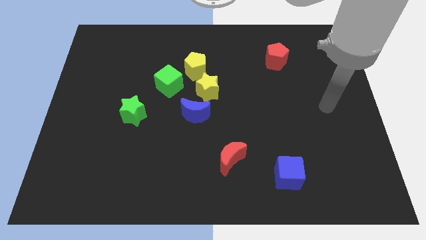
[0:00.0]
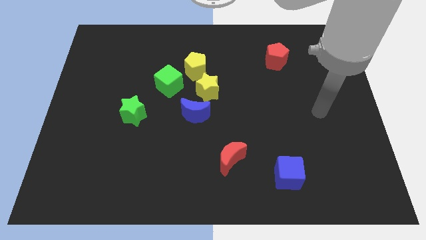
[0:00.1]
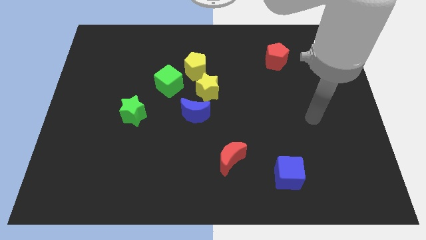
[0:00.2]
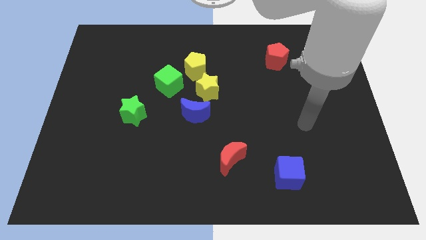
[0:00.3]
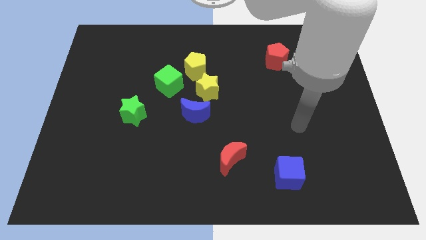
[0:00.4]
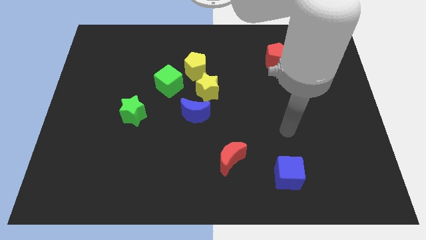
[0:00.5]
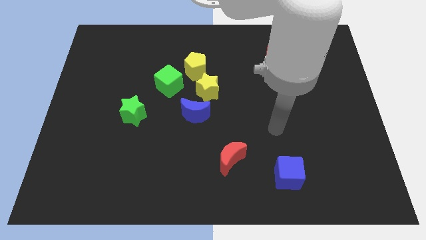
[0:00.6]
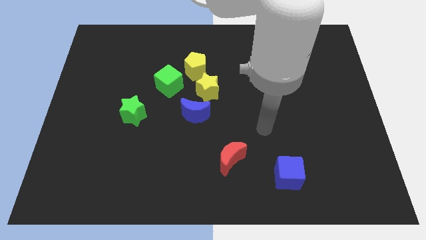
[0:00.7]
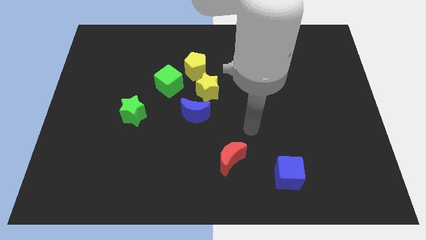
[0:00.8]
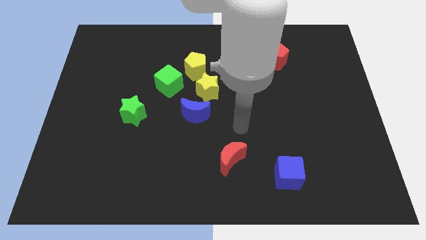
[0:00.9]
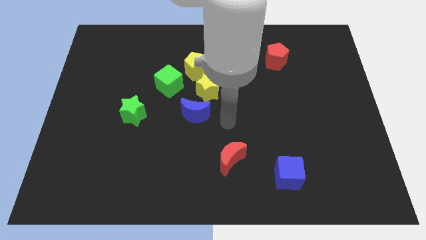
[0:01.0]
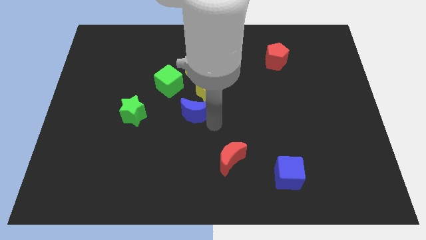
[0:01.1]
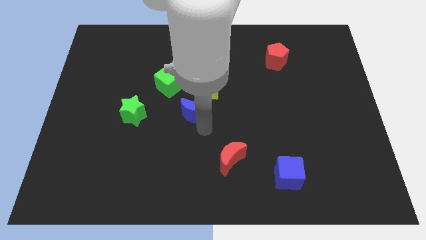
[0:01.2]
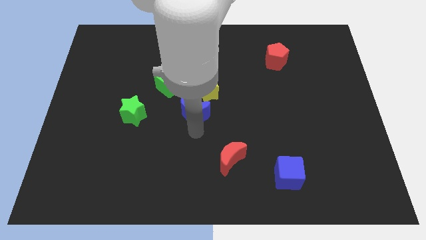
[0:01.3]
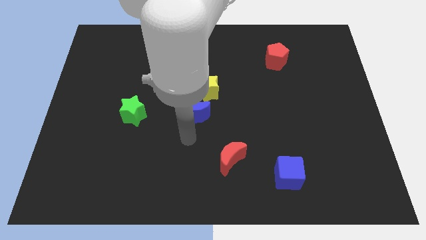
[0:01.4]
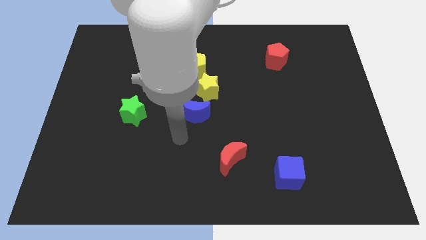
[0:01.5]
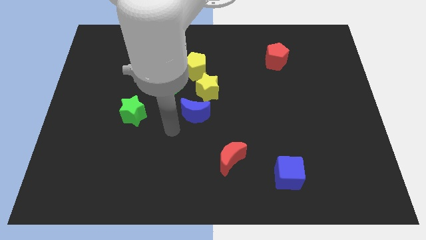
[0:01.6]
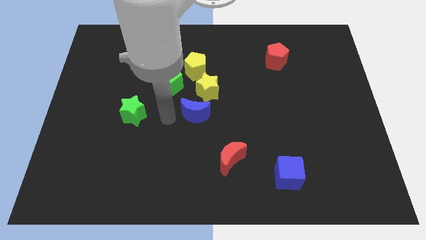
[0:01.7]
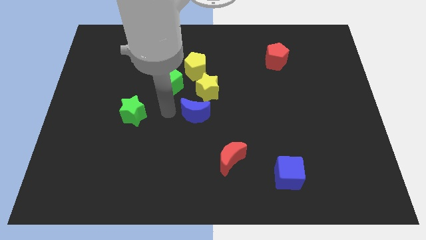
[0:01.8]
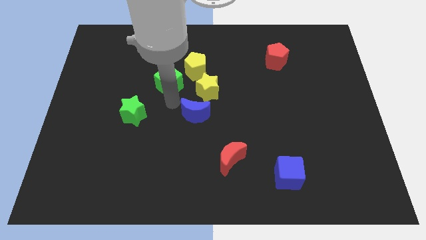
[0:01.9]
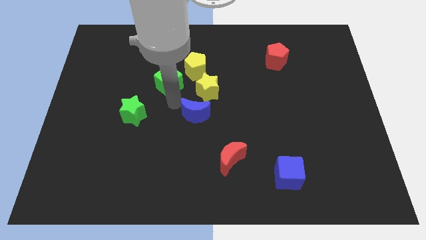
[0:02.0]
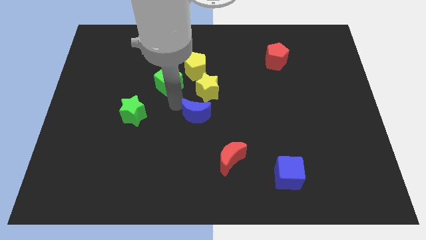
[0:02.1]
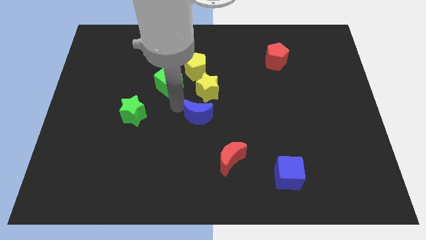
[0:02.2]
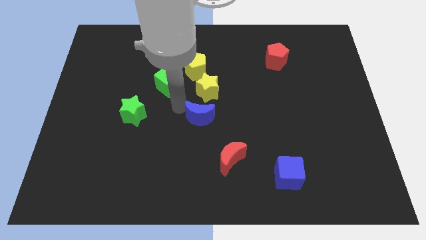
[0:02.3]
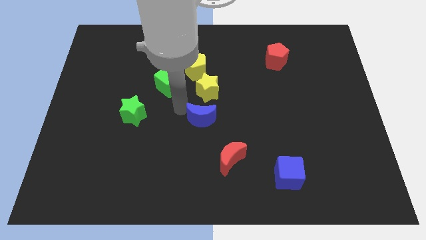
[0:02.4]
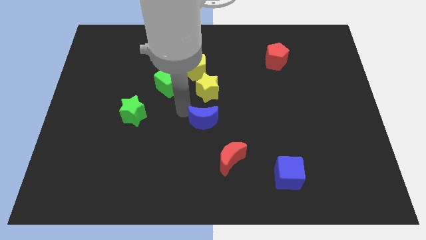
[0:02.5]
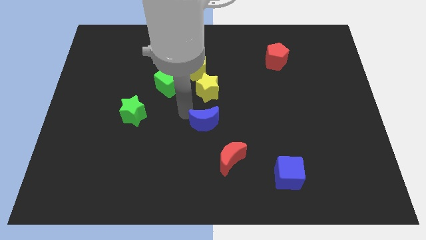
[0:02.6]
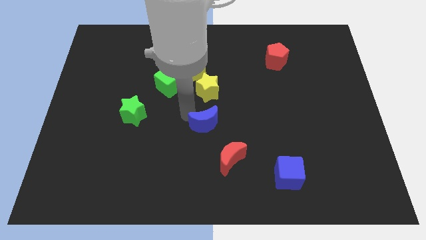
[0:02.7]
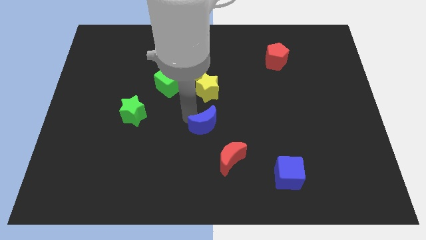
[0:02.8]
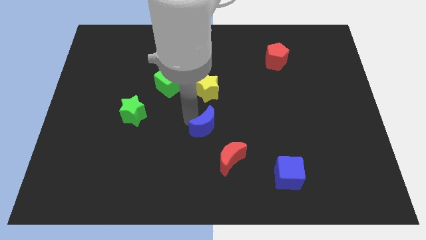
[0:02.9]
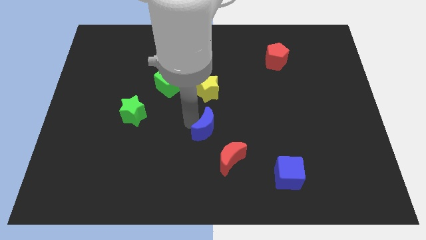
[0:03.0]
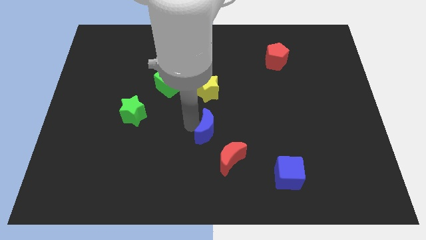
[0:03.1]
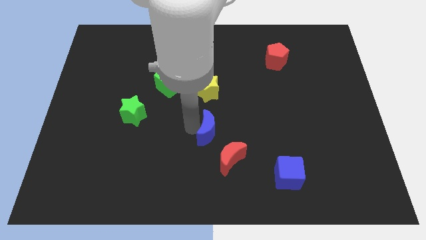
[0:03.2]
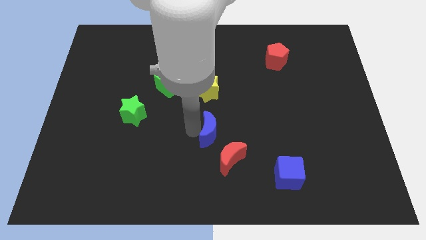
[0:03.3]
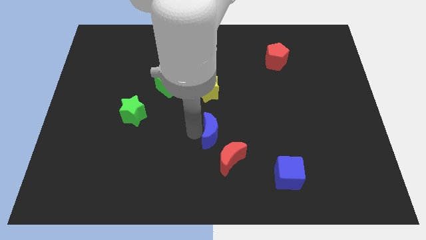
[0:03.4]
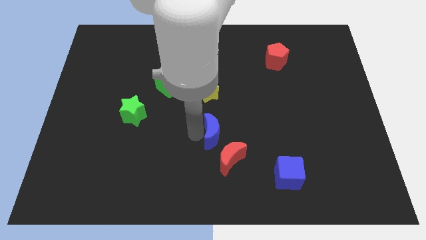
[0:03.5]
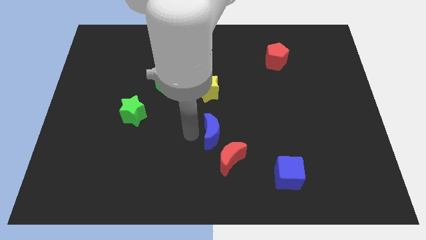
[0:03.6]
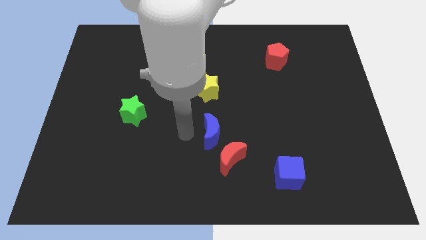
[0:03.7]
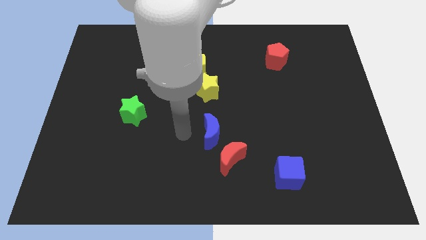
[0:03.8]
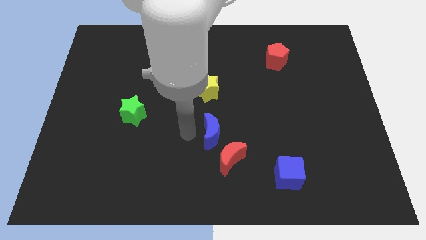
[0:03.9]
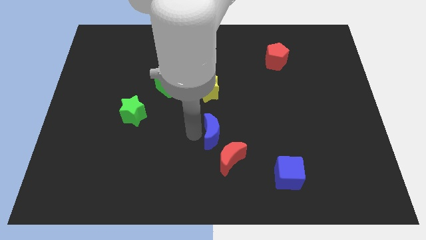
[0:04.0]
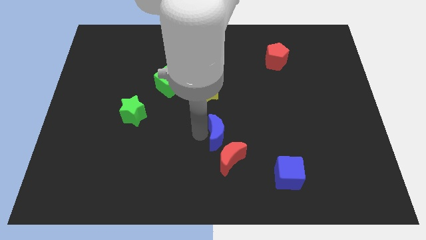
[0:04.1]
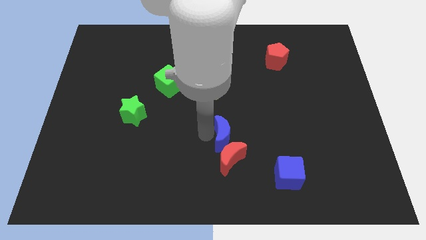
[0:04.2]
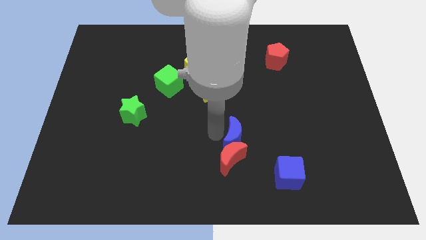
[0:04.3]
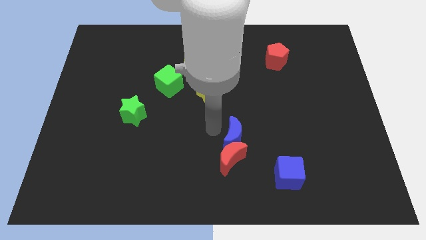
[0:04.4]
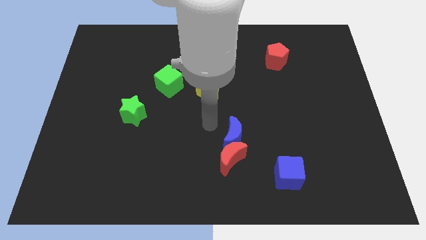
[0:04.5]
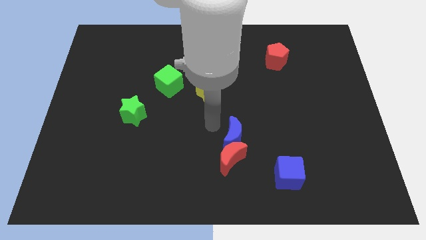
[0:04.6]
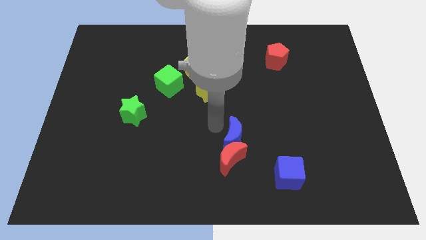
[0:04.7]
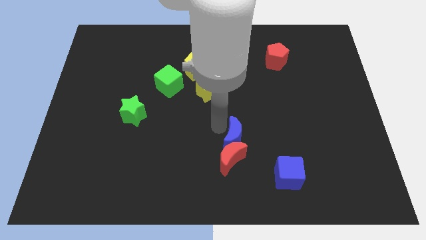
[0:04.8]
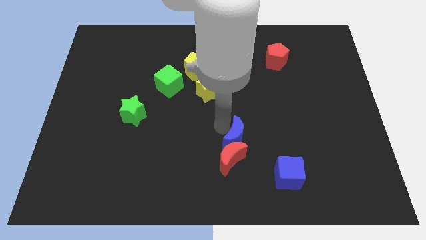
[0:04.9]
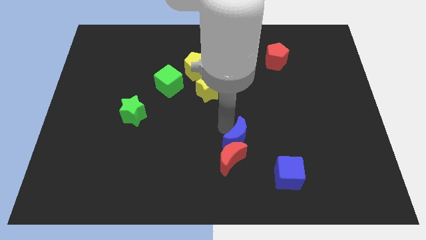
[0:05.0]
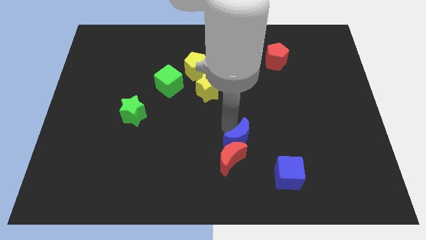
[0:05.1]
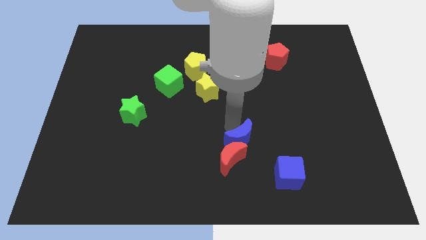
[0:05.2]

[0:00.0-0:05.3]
put the blue moon diagonally up and to the left of the blue cube

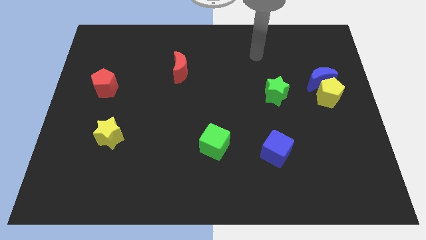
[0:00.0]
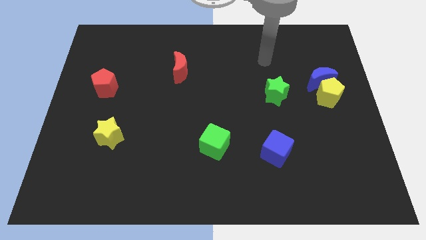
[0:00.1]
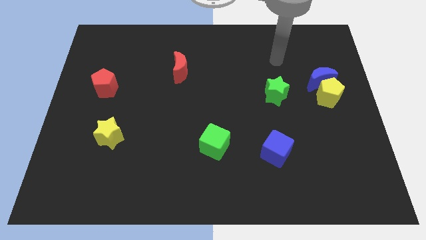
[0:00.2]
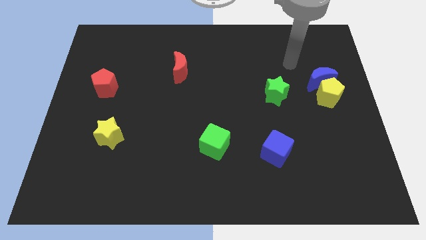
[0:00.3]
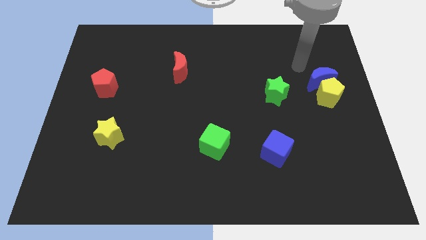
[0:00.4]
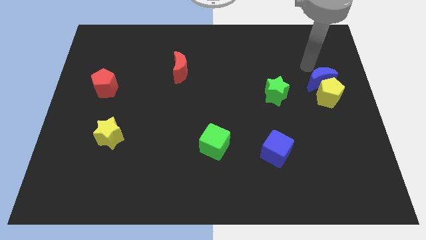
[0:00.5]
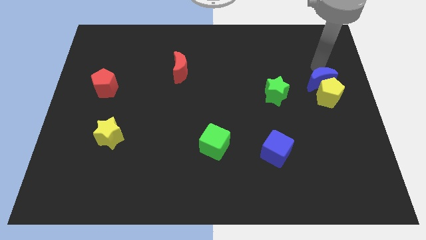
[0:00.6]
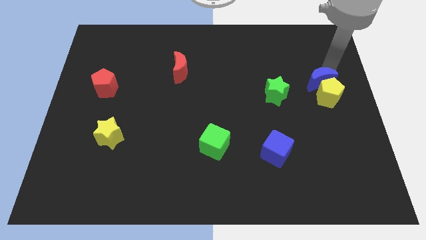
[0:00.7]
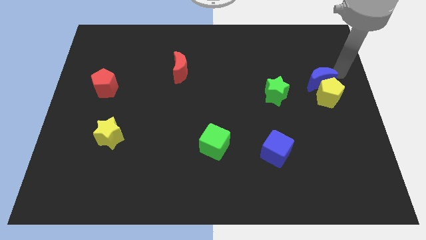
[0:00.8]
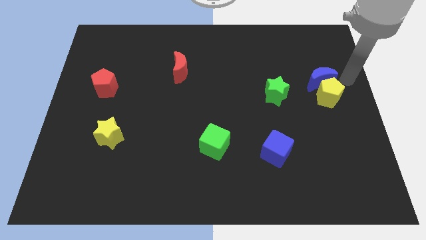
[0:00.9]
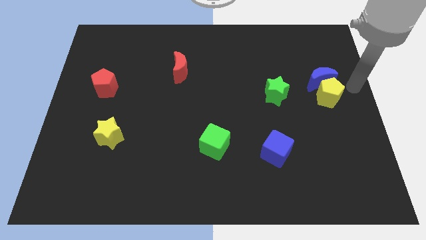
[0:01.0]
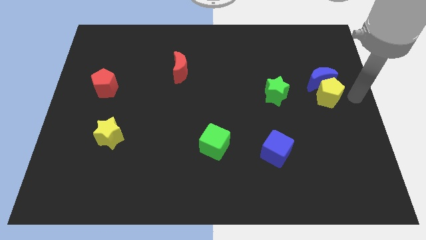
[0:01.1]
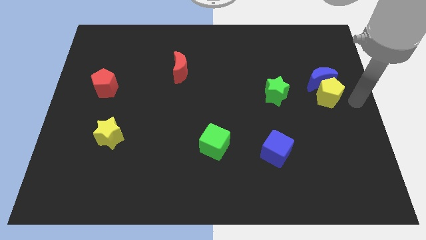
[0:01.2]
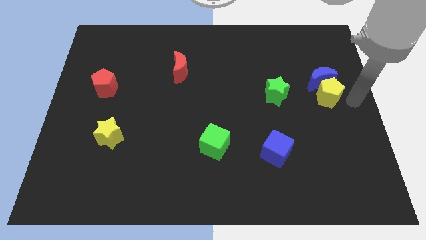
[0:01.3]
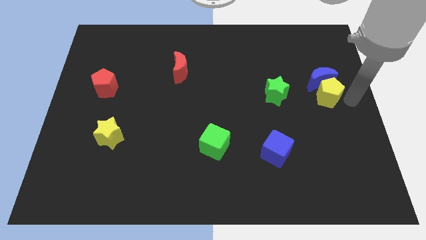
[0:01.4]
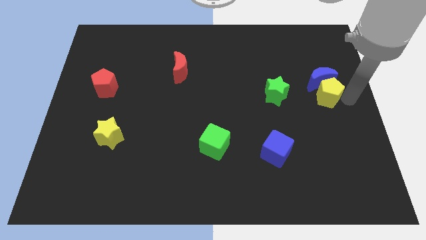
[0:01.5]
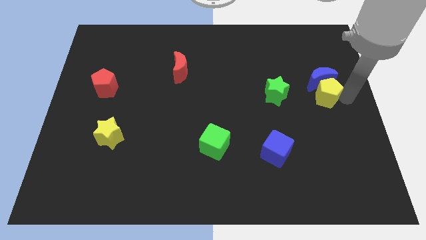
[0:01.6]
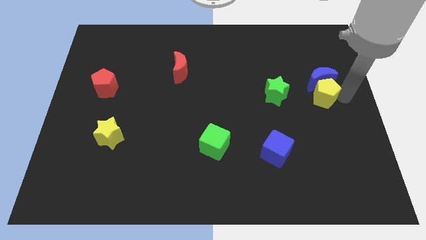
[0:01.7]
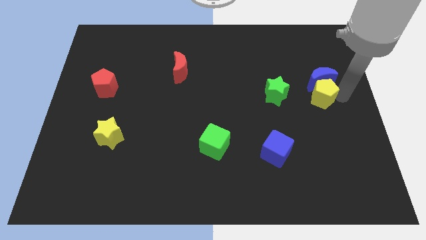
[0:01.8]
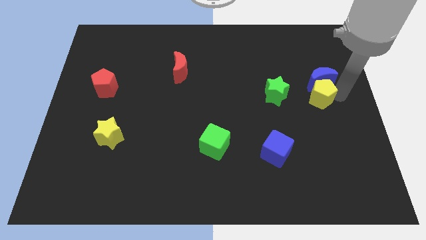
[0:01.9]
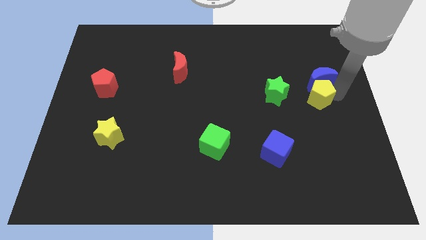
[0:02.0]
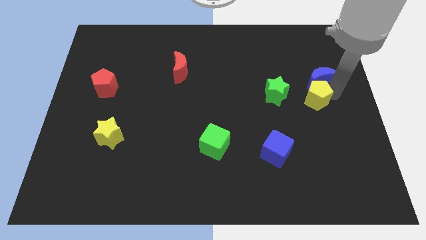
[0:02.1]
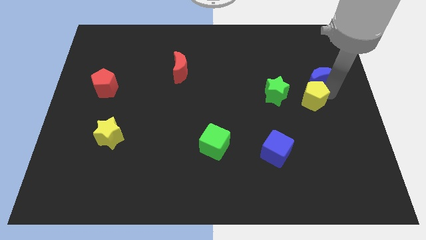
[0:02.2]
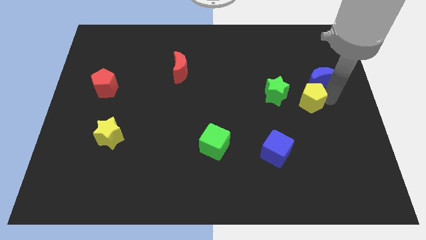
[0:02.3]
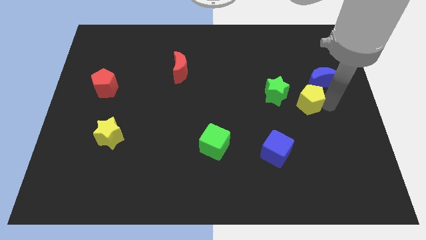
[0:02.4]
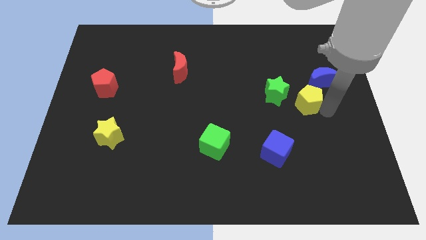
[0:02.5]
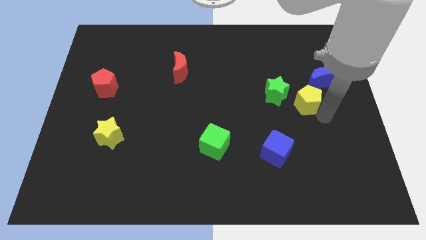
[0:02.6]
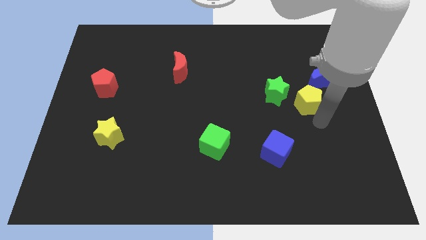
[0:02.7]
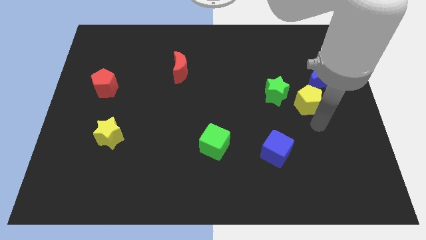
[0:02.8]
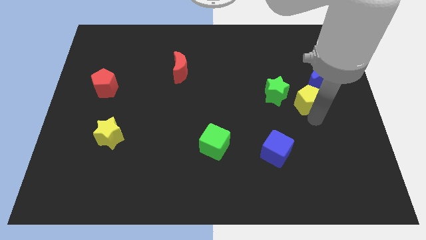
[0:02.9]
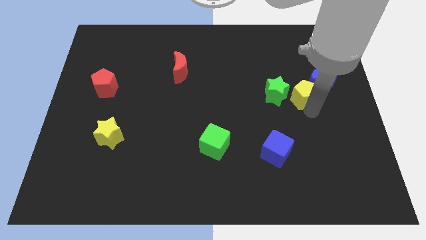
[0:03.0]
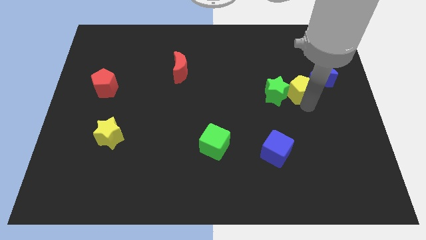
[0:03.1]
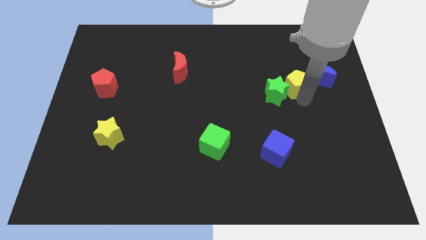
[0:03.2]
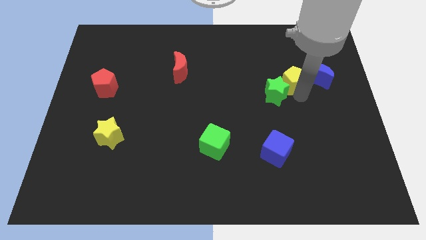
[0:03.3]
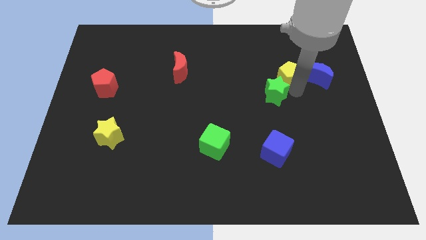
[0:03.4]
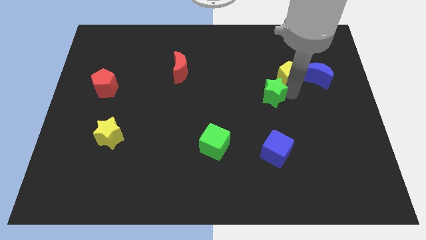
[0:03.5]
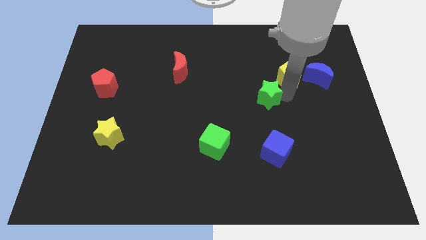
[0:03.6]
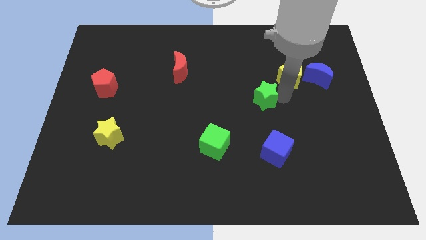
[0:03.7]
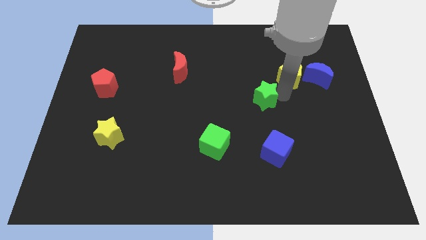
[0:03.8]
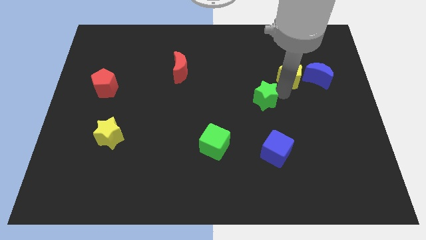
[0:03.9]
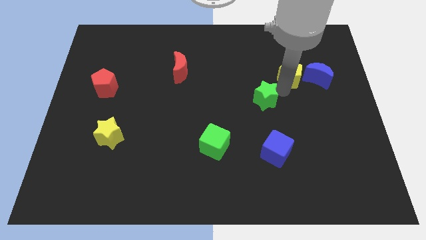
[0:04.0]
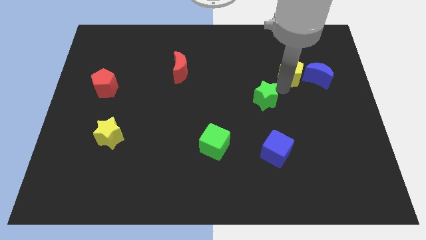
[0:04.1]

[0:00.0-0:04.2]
move the yellow pentagon diagonally up and to the left of the blue moon
